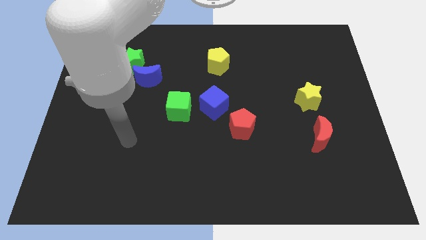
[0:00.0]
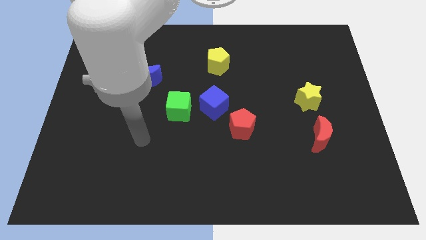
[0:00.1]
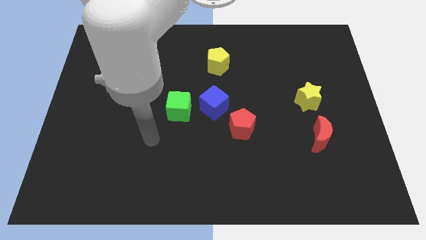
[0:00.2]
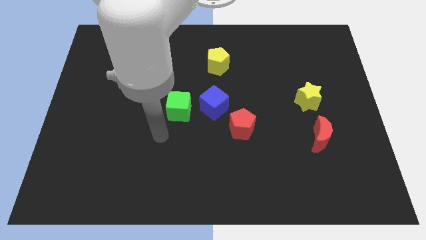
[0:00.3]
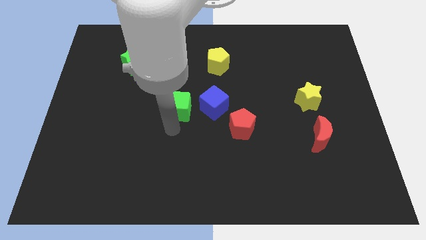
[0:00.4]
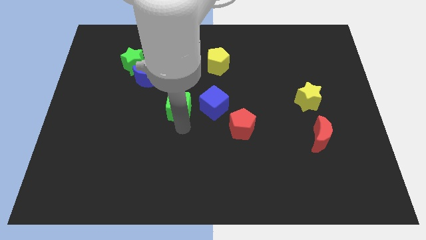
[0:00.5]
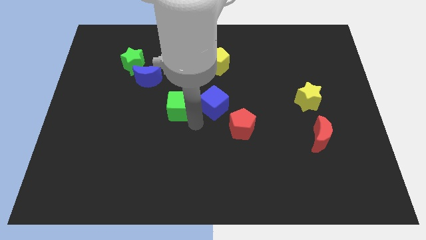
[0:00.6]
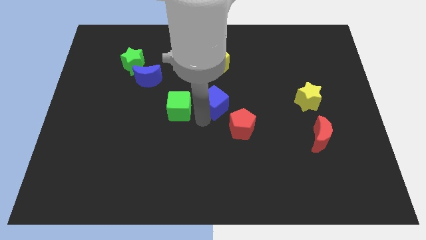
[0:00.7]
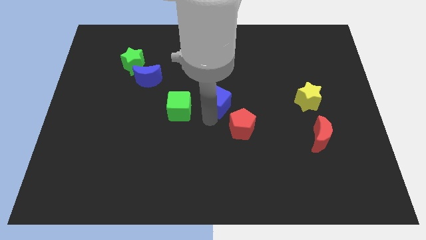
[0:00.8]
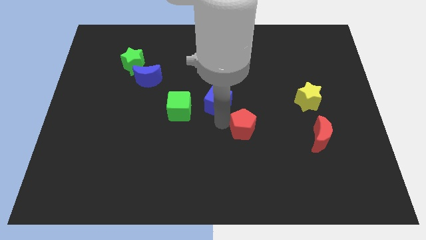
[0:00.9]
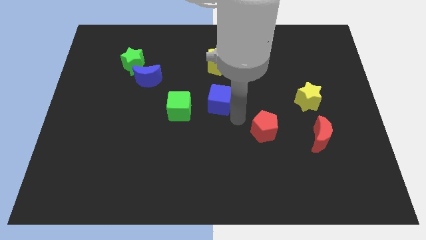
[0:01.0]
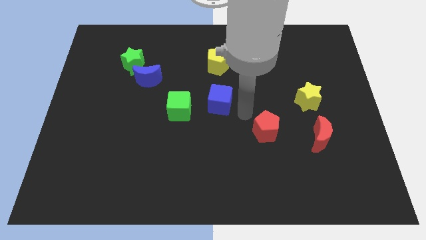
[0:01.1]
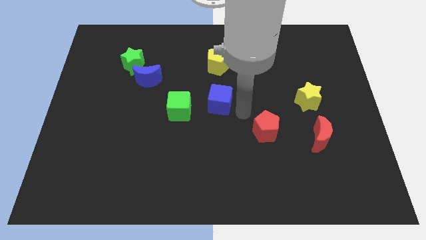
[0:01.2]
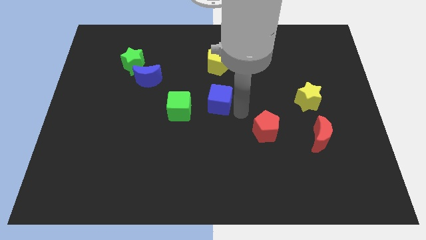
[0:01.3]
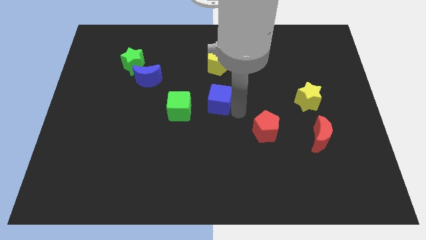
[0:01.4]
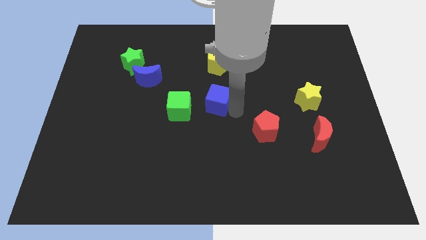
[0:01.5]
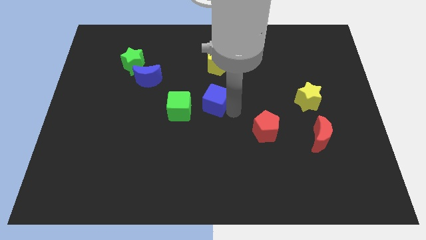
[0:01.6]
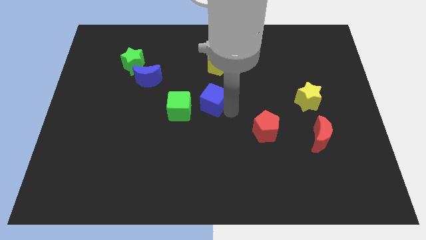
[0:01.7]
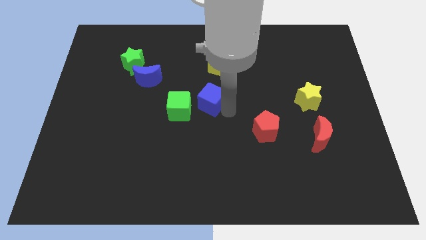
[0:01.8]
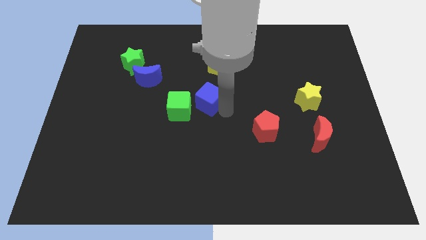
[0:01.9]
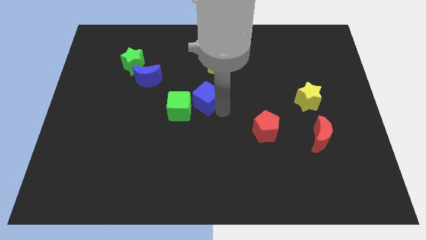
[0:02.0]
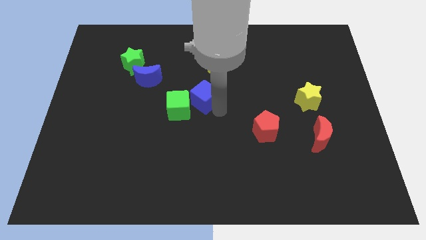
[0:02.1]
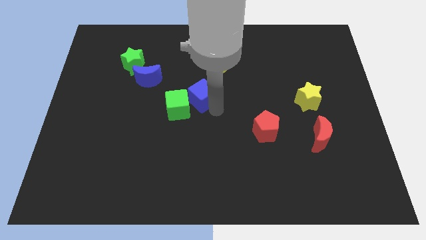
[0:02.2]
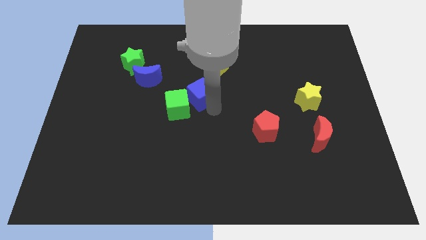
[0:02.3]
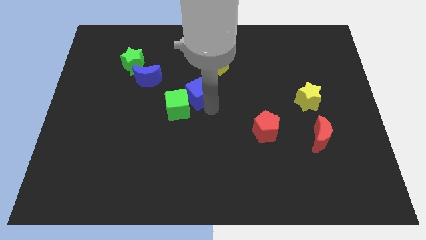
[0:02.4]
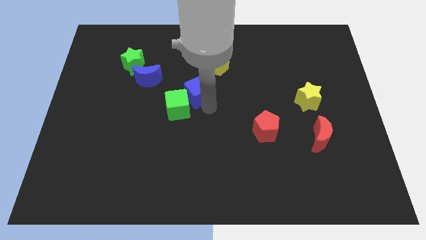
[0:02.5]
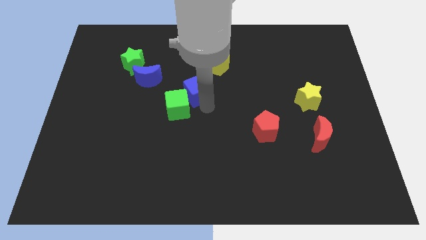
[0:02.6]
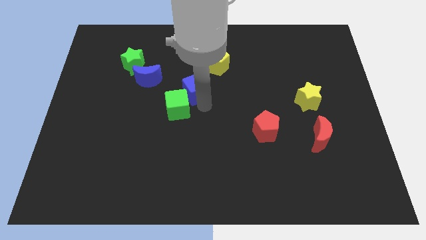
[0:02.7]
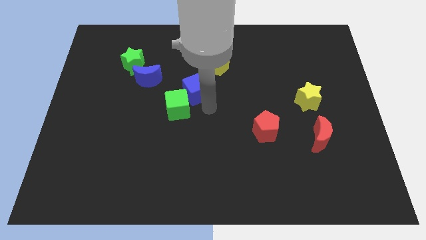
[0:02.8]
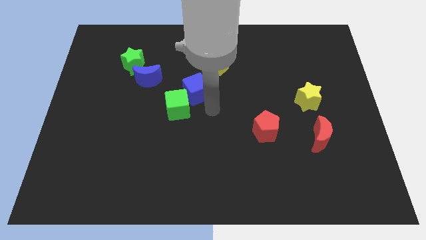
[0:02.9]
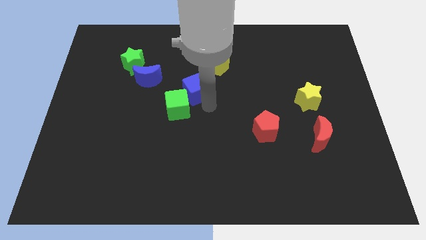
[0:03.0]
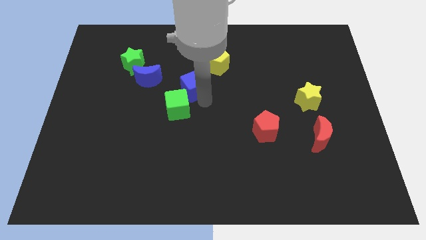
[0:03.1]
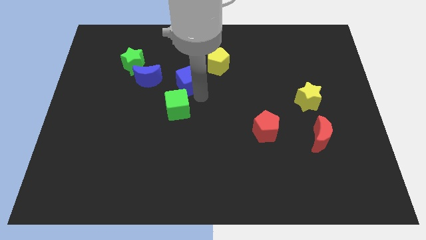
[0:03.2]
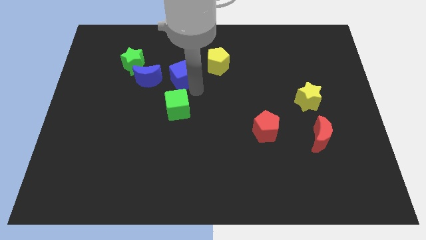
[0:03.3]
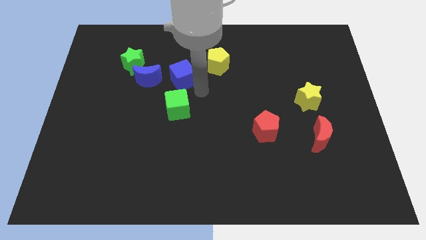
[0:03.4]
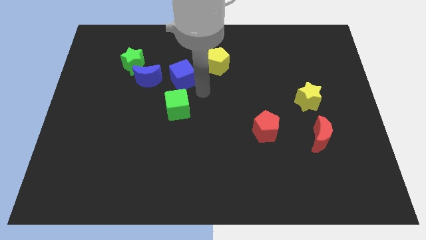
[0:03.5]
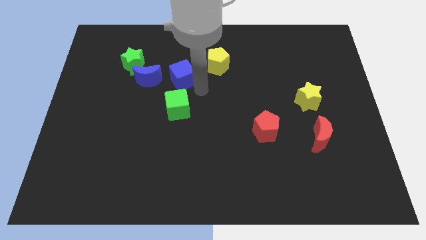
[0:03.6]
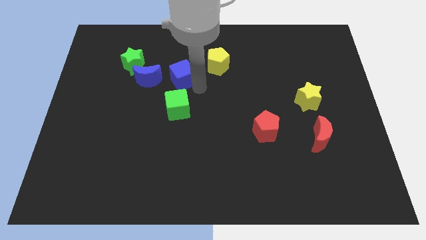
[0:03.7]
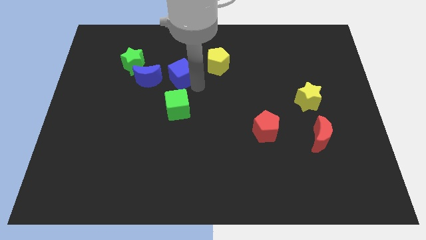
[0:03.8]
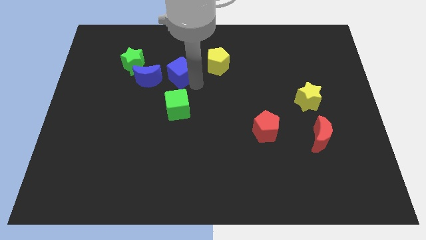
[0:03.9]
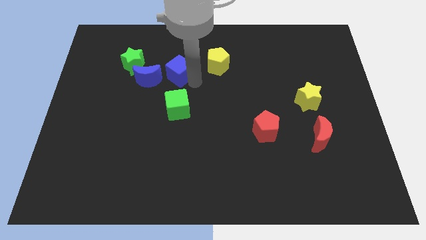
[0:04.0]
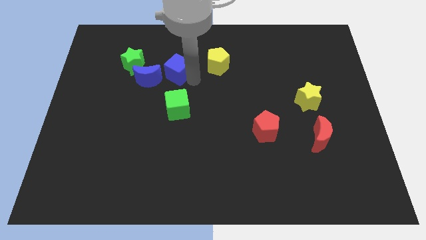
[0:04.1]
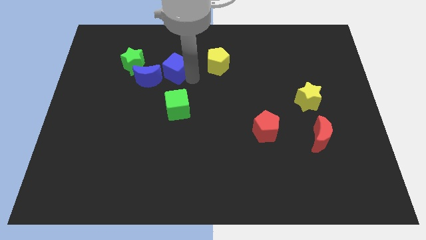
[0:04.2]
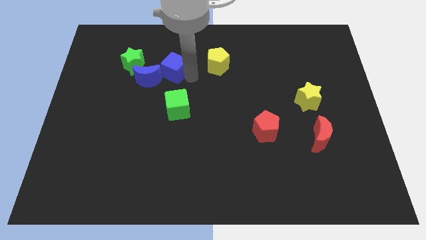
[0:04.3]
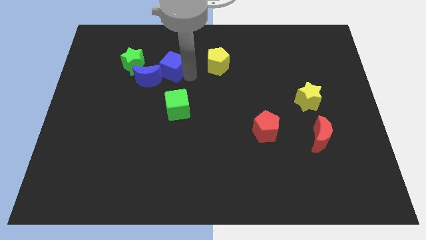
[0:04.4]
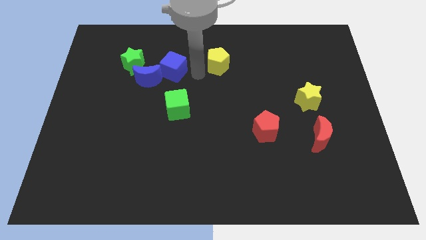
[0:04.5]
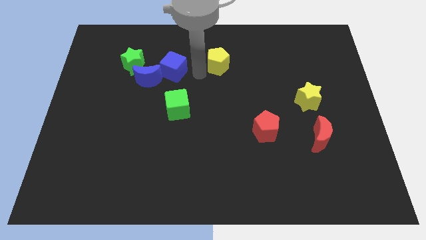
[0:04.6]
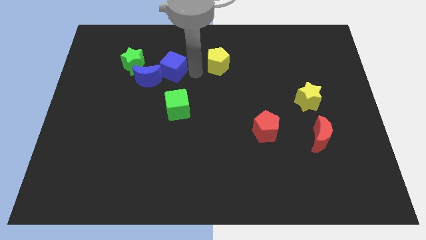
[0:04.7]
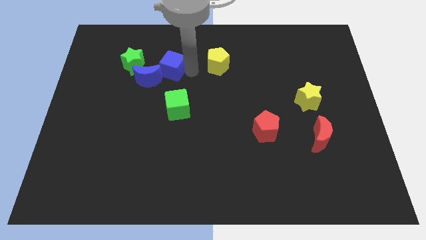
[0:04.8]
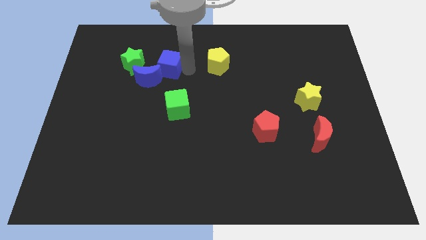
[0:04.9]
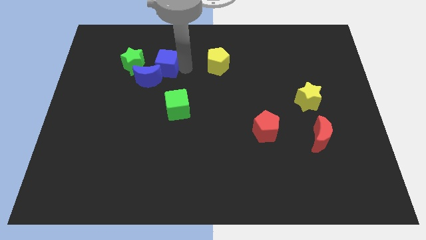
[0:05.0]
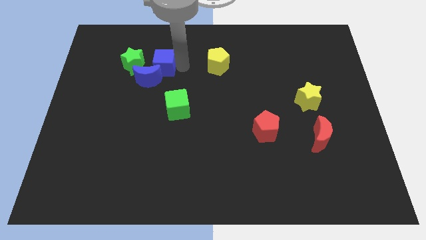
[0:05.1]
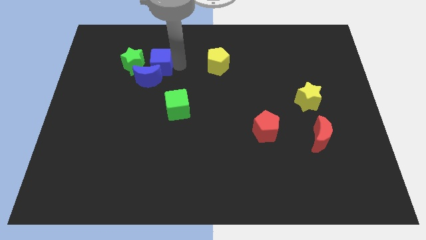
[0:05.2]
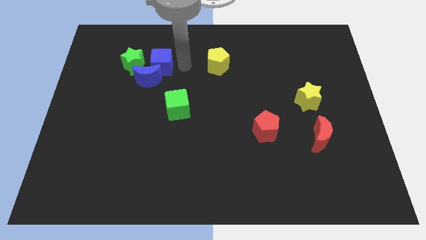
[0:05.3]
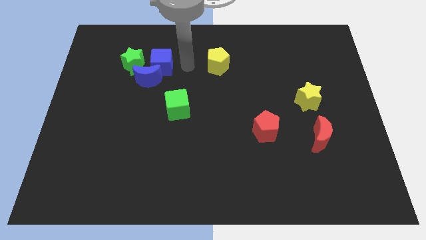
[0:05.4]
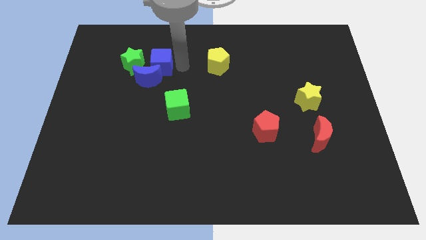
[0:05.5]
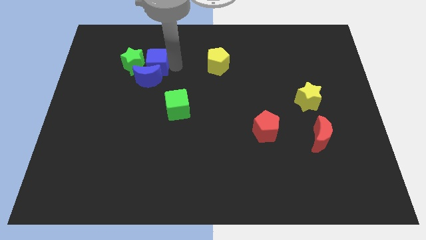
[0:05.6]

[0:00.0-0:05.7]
move the blue cube towards the green star

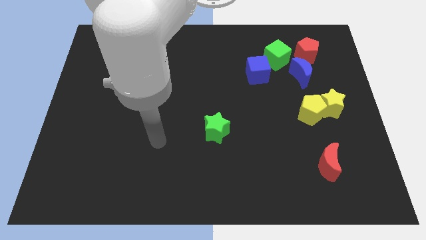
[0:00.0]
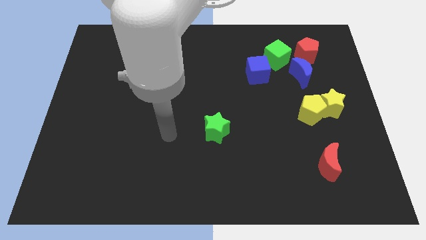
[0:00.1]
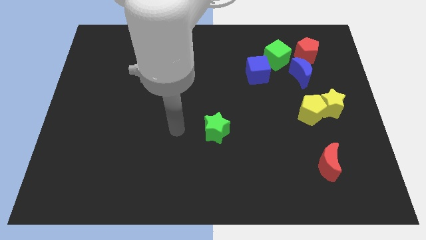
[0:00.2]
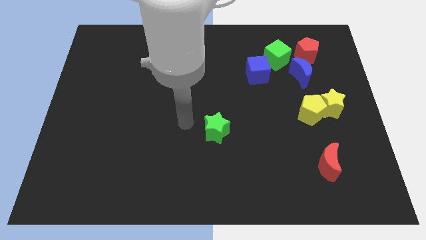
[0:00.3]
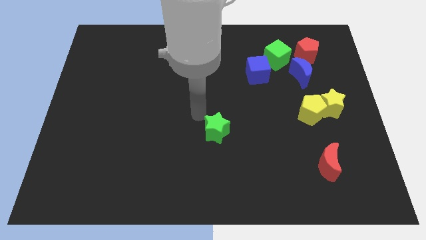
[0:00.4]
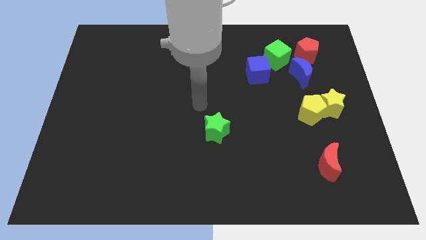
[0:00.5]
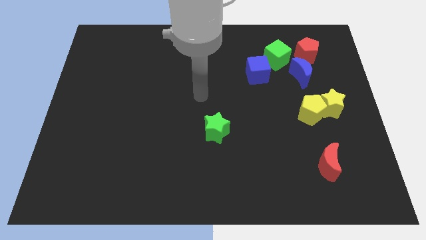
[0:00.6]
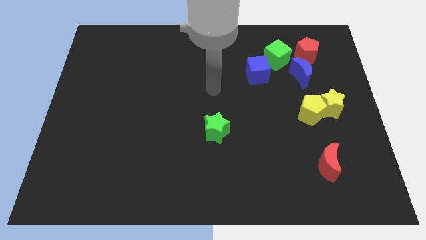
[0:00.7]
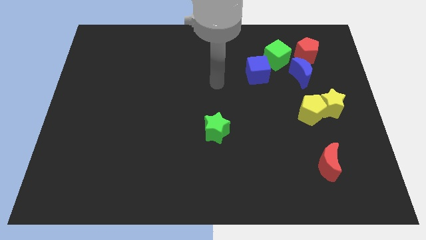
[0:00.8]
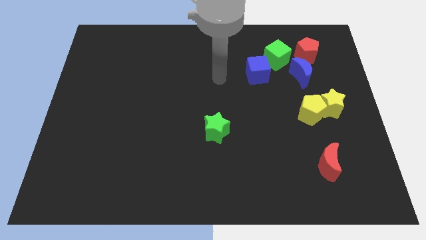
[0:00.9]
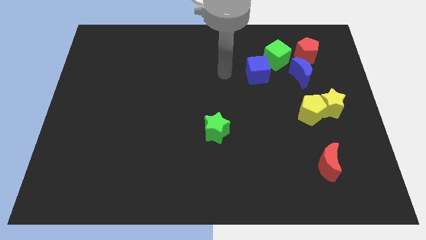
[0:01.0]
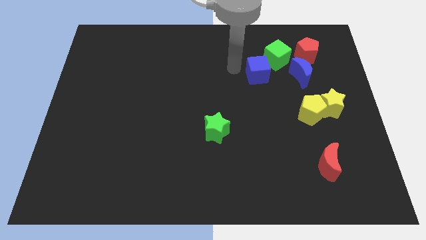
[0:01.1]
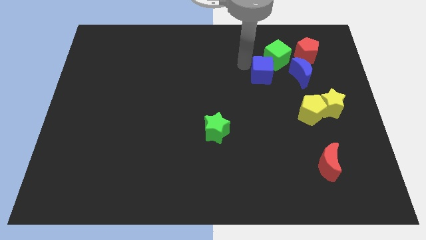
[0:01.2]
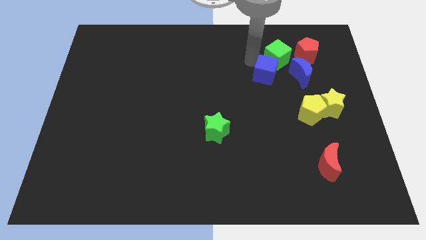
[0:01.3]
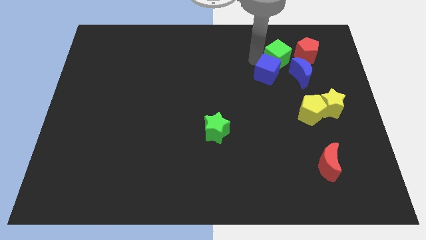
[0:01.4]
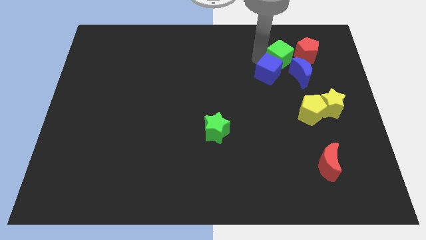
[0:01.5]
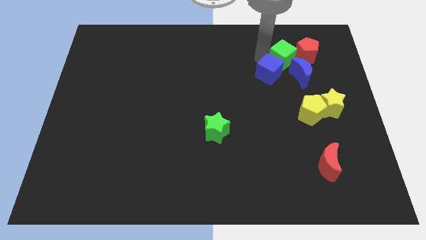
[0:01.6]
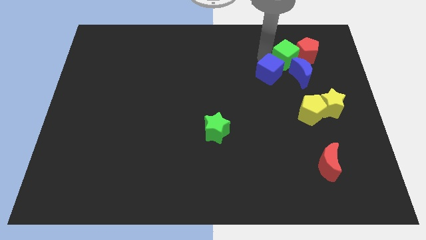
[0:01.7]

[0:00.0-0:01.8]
move the green cube close to the red pentagon
